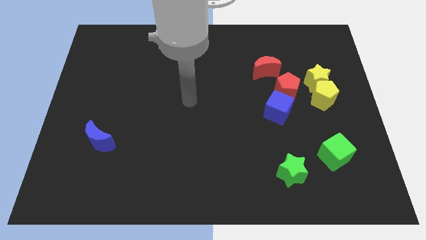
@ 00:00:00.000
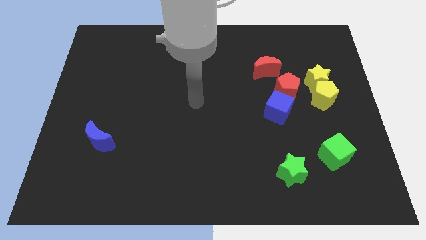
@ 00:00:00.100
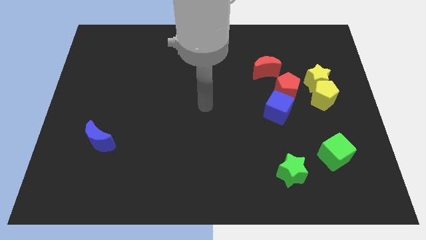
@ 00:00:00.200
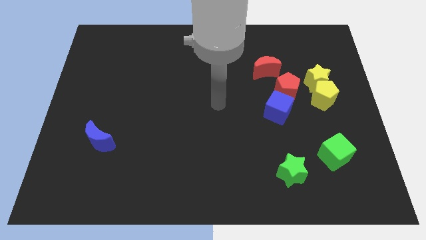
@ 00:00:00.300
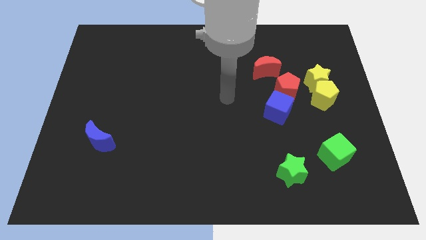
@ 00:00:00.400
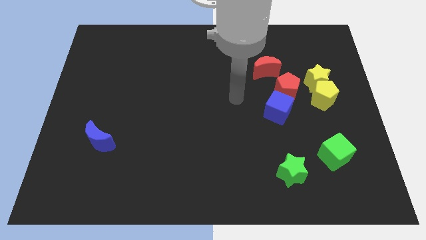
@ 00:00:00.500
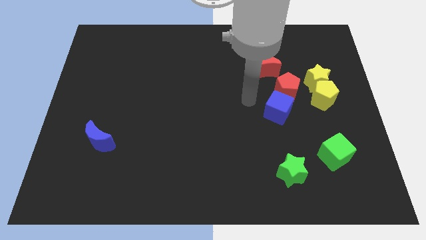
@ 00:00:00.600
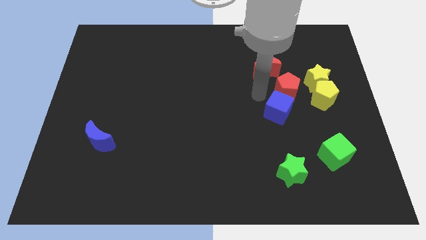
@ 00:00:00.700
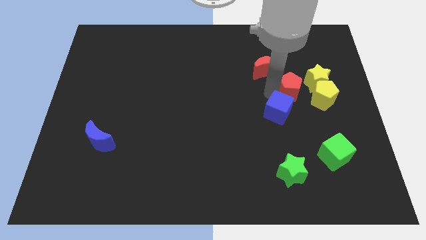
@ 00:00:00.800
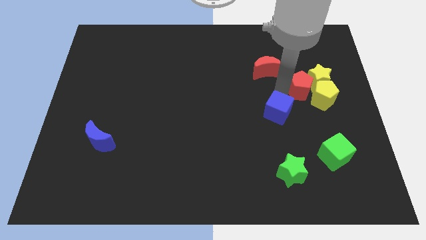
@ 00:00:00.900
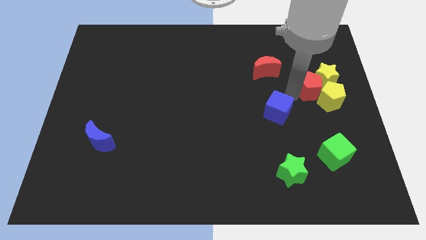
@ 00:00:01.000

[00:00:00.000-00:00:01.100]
move the blue cube away from the red pentagon

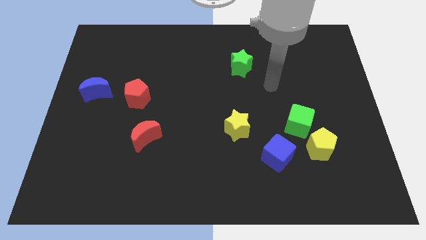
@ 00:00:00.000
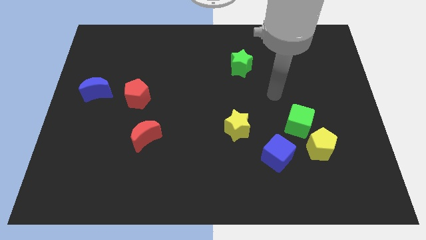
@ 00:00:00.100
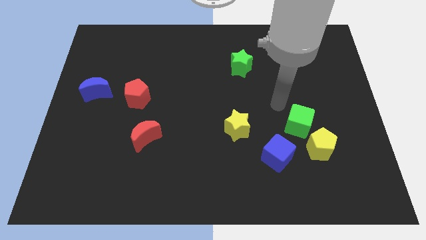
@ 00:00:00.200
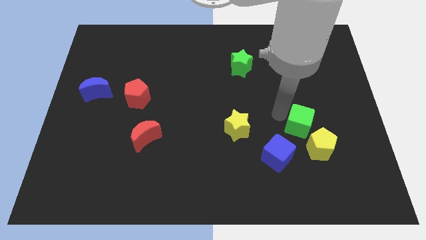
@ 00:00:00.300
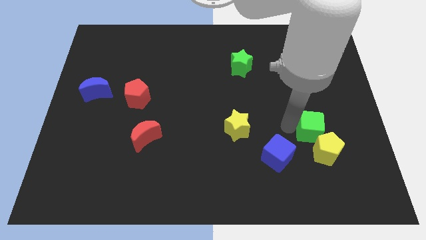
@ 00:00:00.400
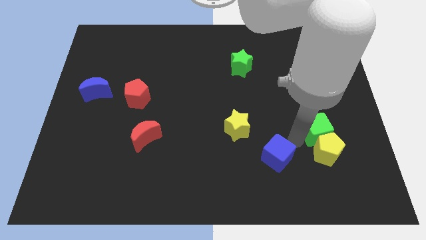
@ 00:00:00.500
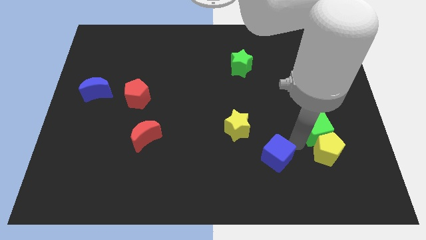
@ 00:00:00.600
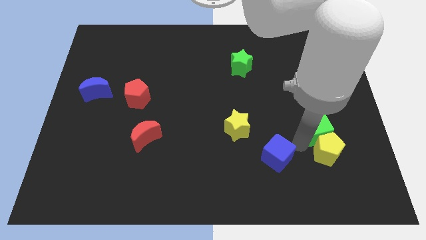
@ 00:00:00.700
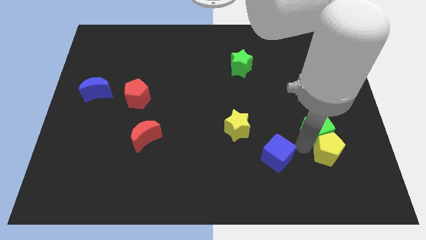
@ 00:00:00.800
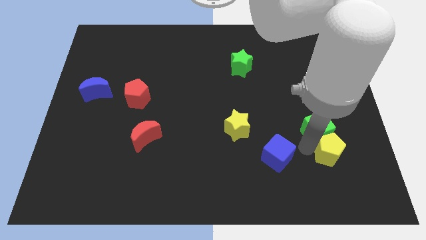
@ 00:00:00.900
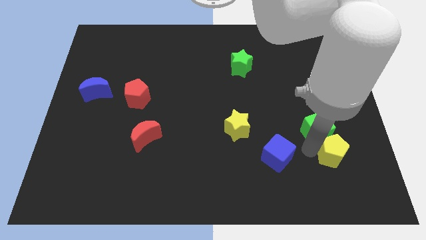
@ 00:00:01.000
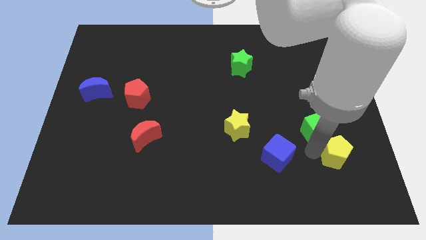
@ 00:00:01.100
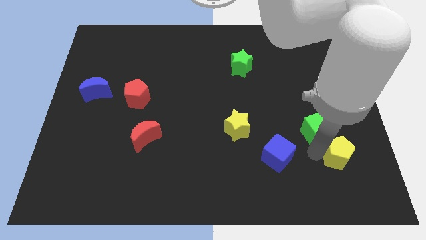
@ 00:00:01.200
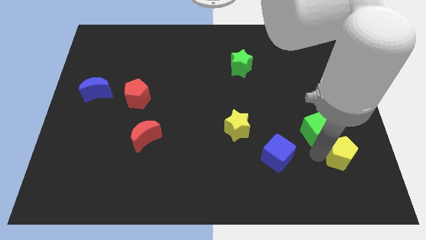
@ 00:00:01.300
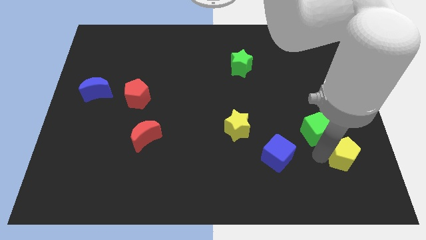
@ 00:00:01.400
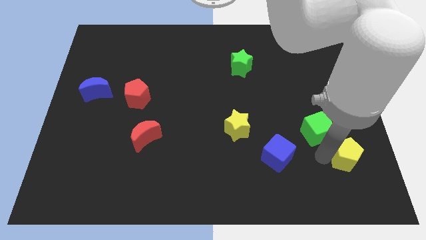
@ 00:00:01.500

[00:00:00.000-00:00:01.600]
move the yellow pentagon away from the green cube and blue cube

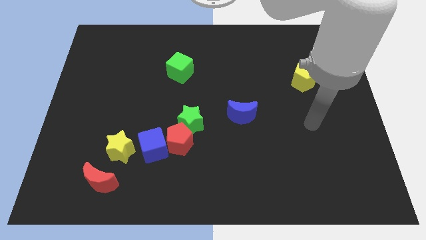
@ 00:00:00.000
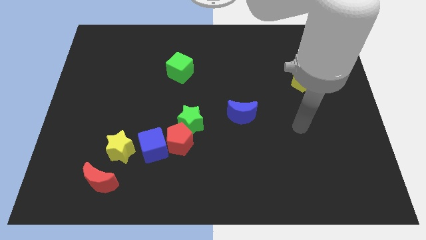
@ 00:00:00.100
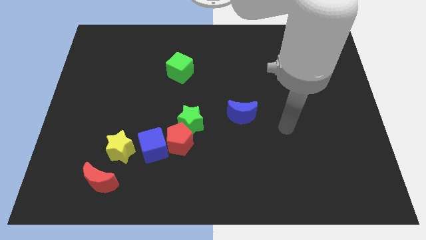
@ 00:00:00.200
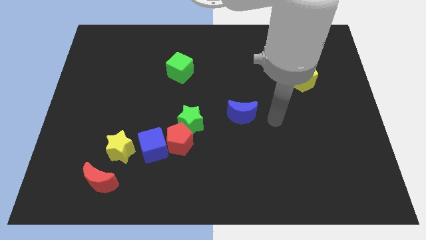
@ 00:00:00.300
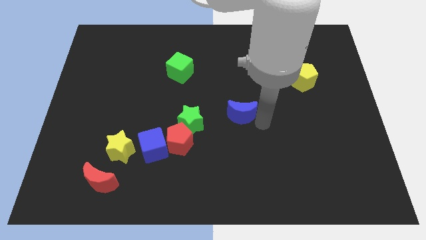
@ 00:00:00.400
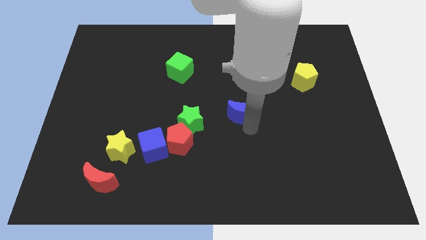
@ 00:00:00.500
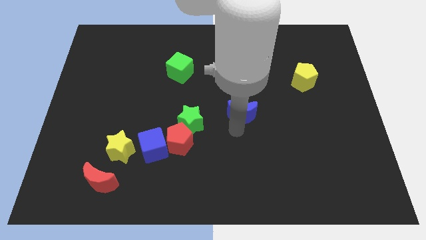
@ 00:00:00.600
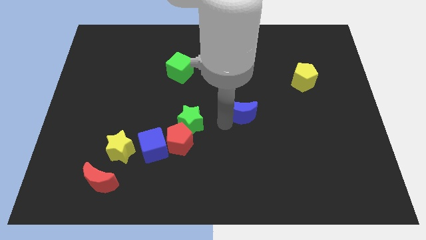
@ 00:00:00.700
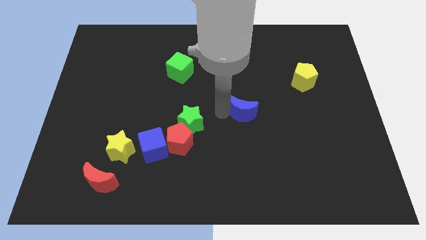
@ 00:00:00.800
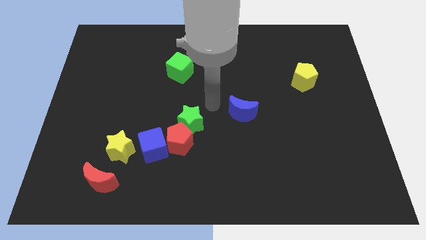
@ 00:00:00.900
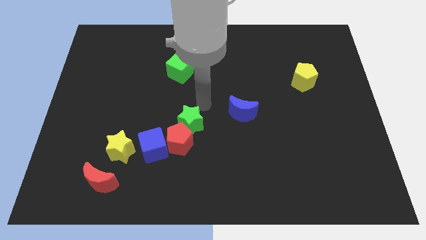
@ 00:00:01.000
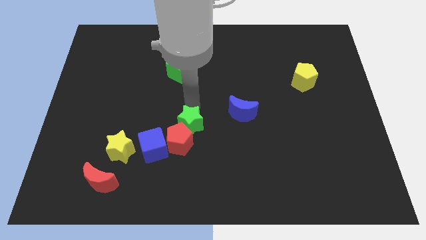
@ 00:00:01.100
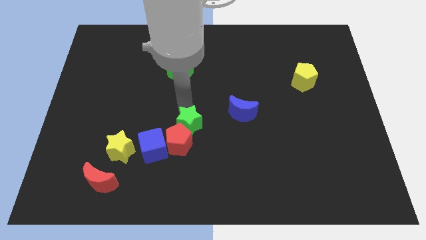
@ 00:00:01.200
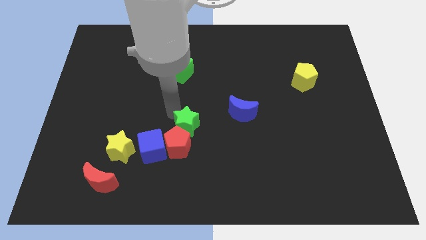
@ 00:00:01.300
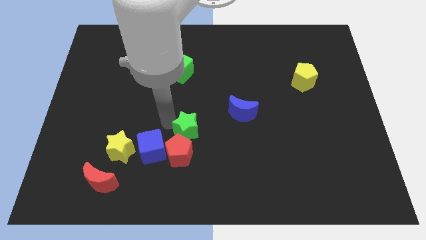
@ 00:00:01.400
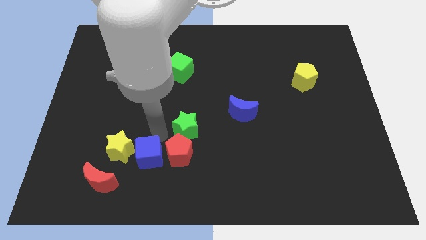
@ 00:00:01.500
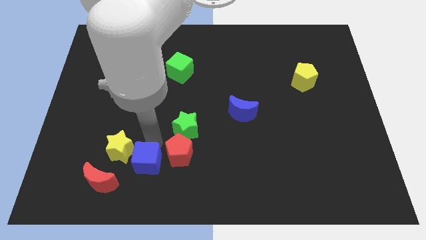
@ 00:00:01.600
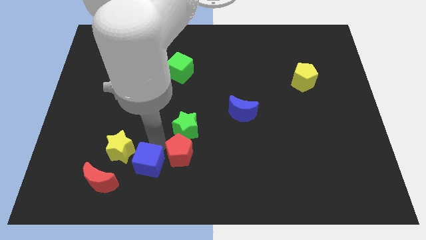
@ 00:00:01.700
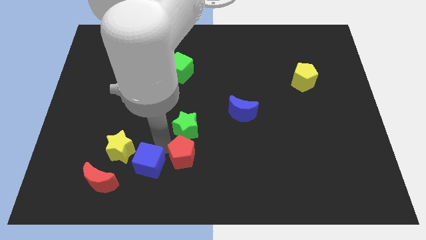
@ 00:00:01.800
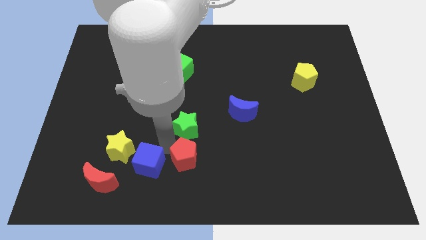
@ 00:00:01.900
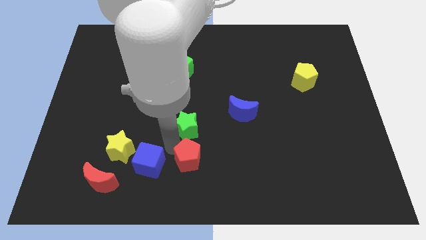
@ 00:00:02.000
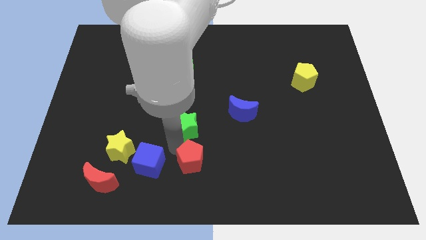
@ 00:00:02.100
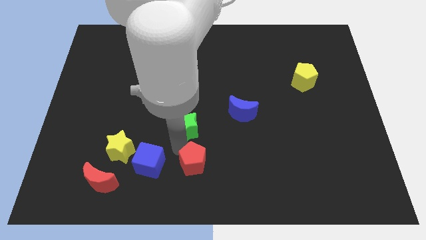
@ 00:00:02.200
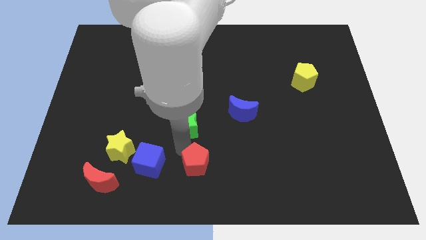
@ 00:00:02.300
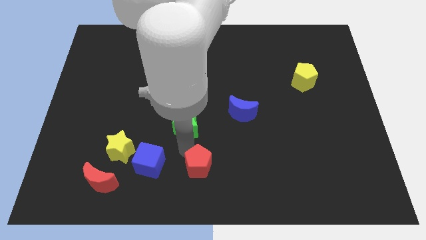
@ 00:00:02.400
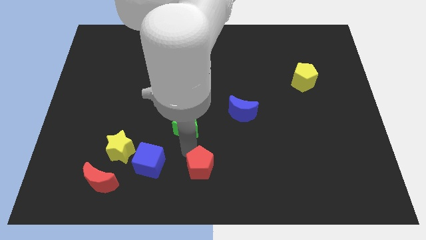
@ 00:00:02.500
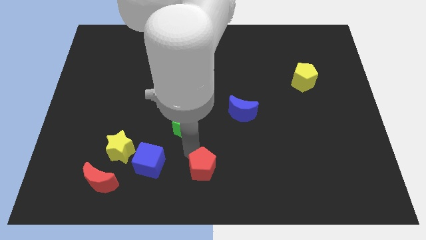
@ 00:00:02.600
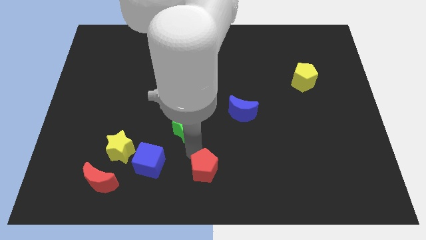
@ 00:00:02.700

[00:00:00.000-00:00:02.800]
pull the red pentagon apart from the blue cube and green star

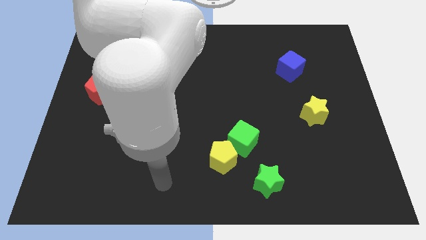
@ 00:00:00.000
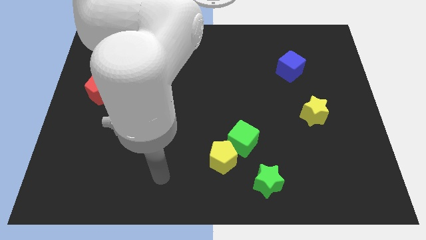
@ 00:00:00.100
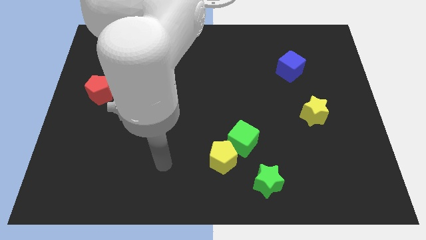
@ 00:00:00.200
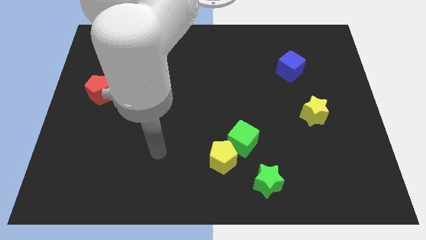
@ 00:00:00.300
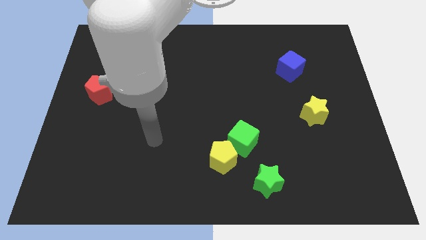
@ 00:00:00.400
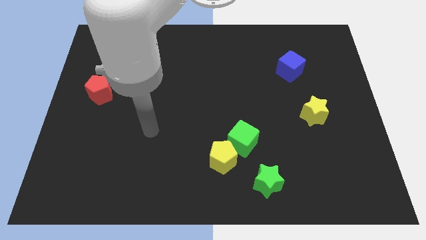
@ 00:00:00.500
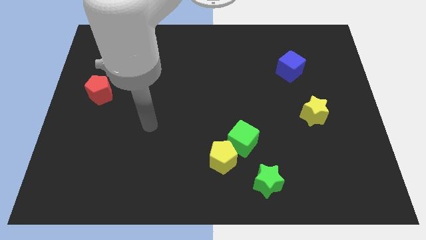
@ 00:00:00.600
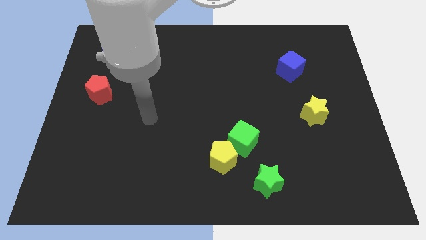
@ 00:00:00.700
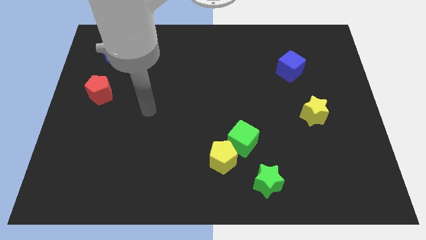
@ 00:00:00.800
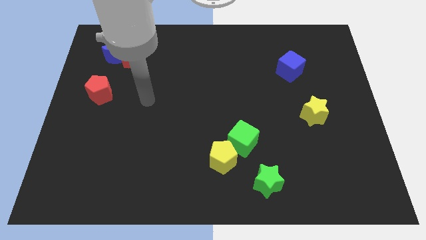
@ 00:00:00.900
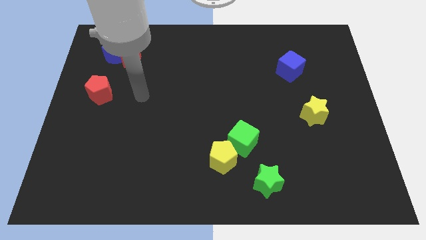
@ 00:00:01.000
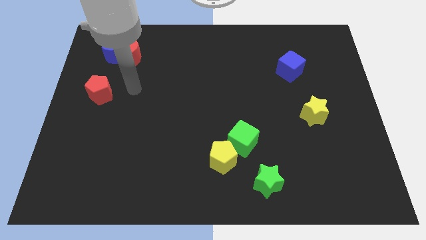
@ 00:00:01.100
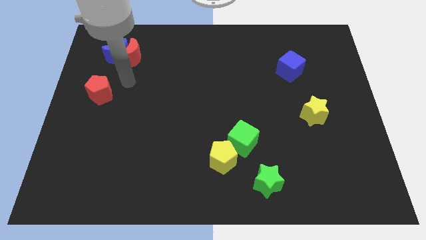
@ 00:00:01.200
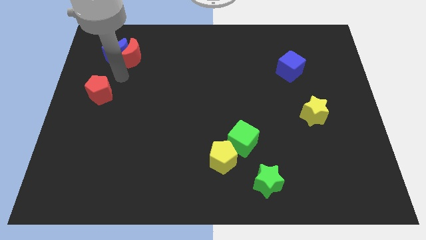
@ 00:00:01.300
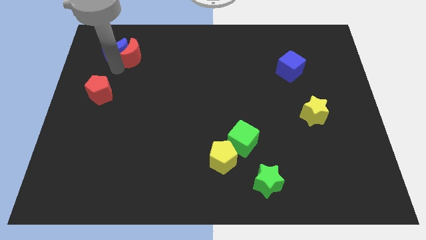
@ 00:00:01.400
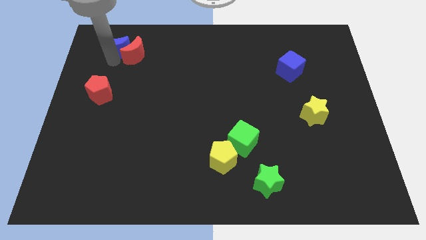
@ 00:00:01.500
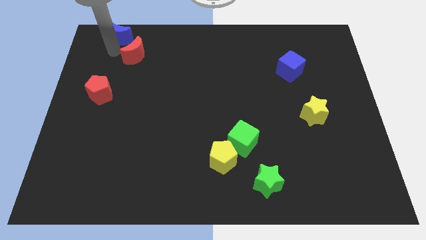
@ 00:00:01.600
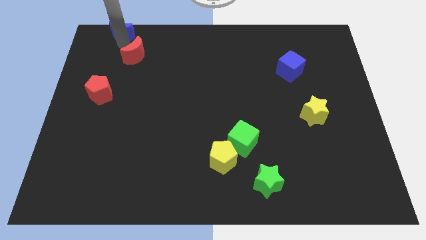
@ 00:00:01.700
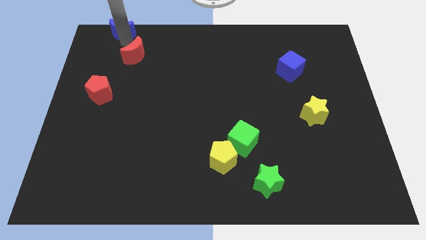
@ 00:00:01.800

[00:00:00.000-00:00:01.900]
move the red moon away from the blue moon

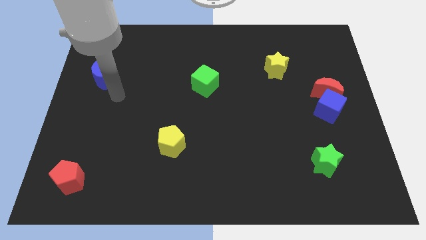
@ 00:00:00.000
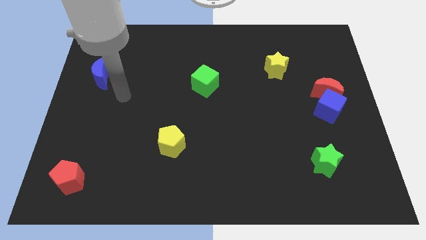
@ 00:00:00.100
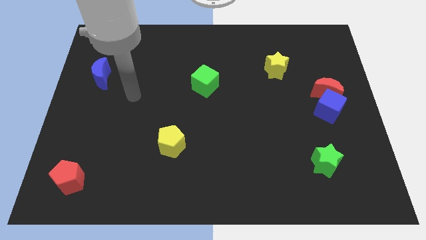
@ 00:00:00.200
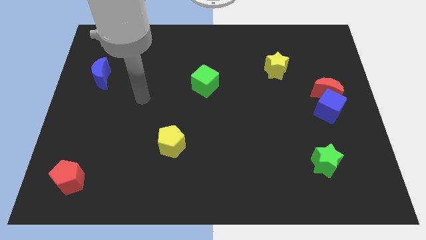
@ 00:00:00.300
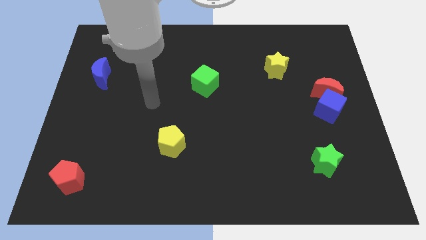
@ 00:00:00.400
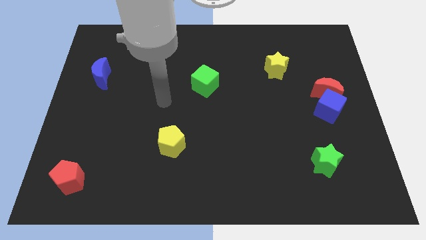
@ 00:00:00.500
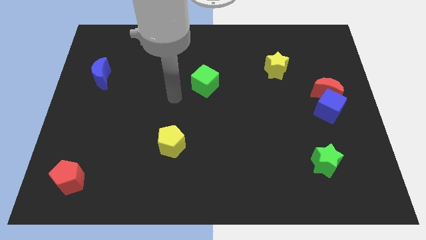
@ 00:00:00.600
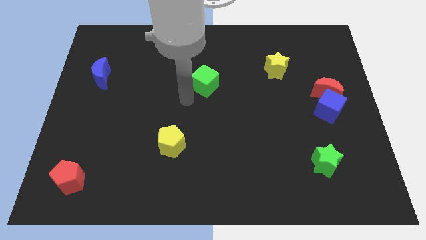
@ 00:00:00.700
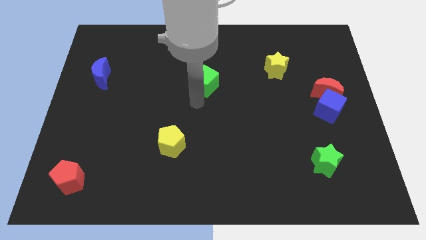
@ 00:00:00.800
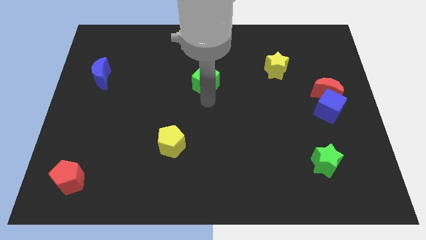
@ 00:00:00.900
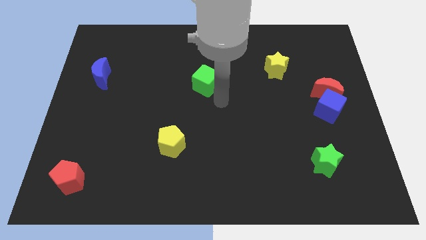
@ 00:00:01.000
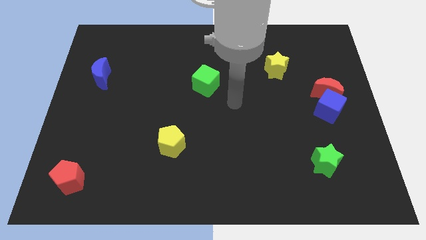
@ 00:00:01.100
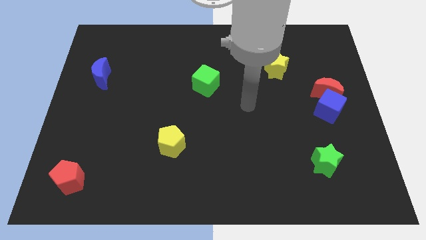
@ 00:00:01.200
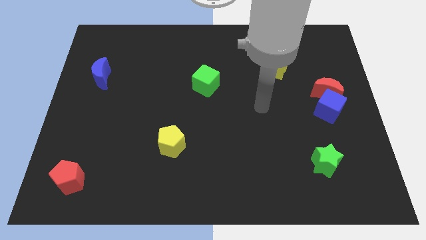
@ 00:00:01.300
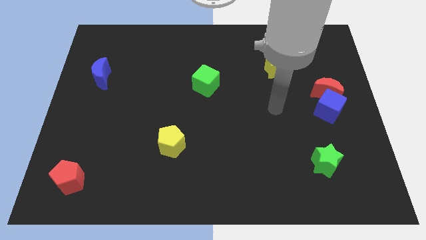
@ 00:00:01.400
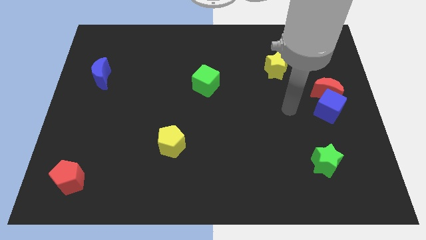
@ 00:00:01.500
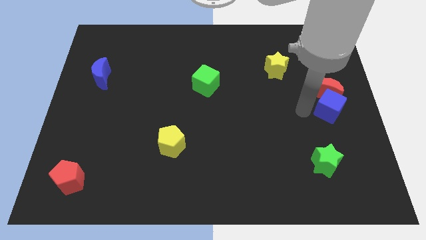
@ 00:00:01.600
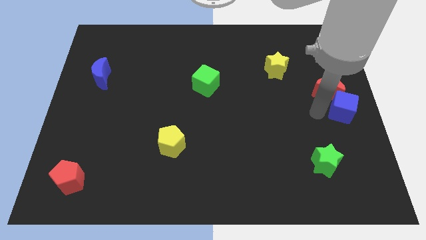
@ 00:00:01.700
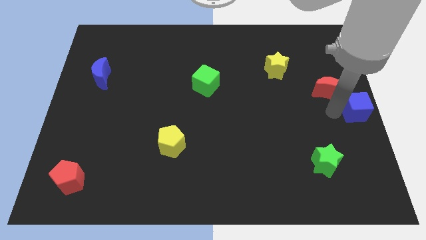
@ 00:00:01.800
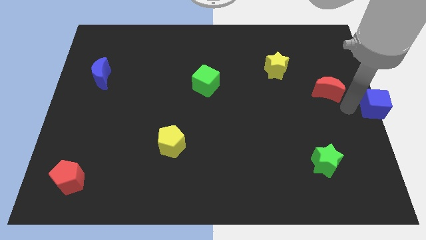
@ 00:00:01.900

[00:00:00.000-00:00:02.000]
pull the red moon apart from the blue cube
